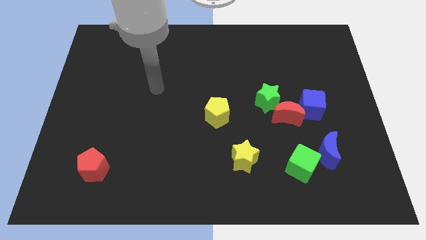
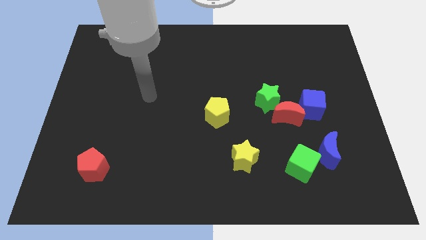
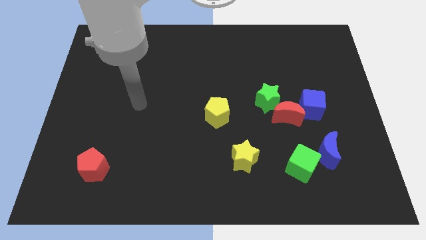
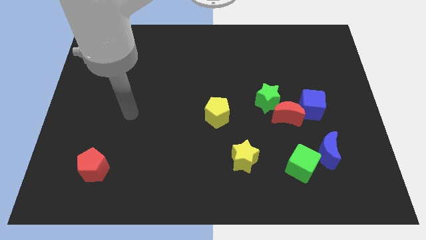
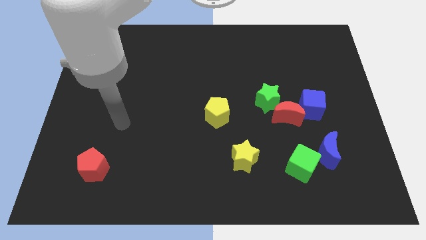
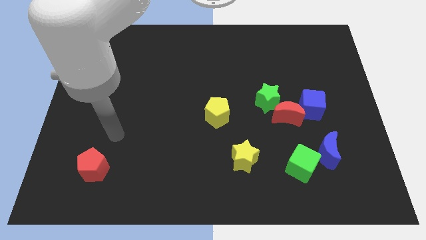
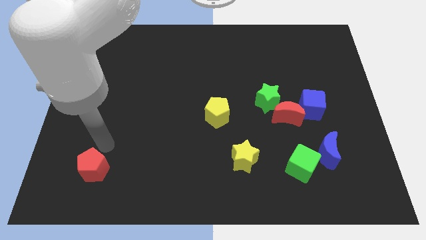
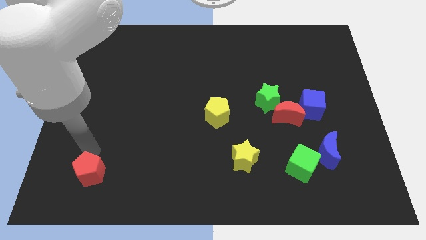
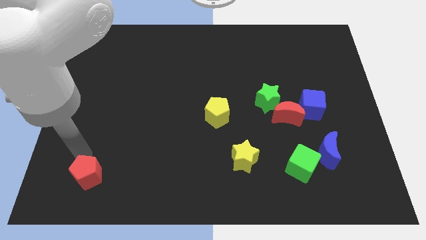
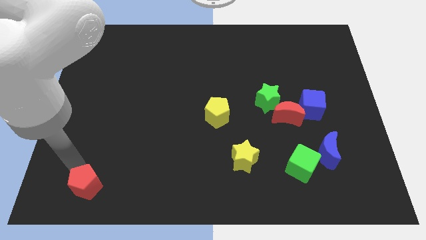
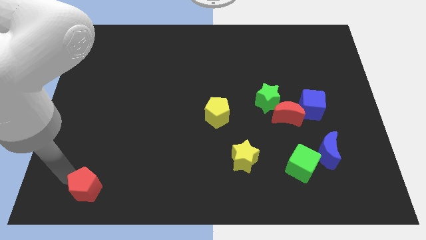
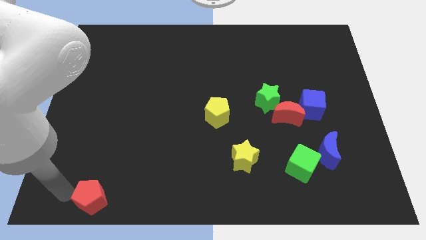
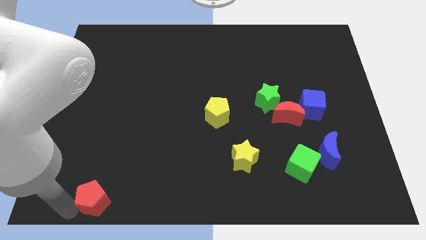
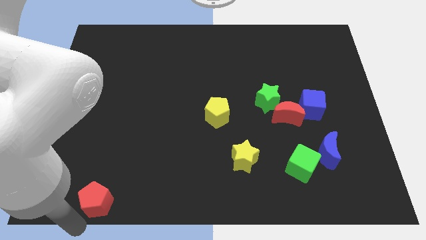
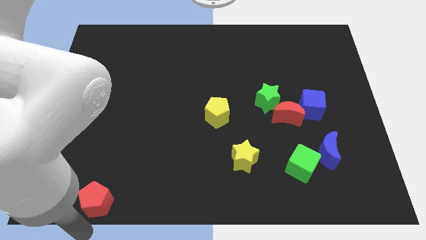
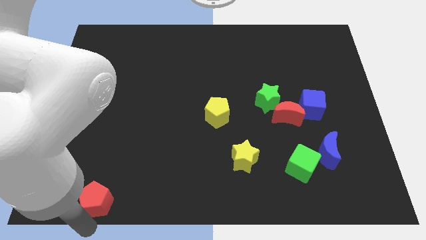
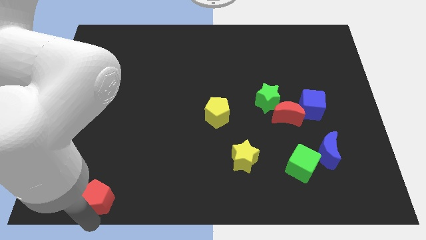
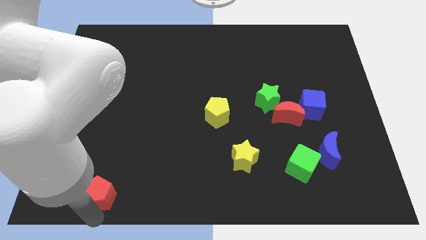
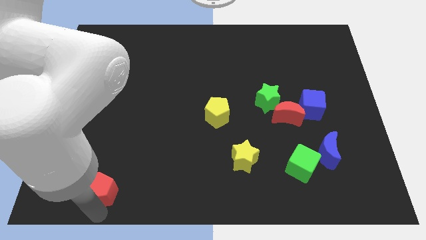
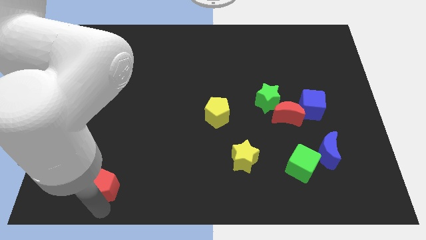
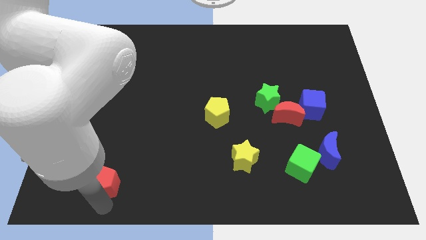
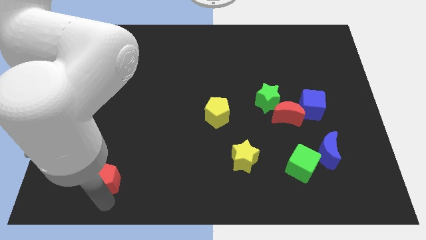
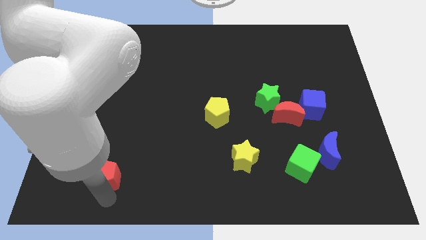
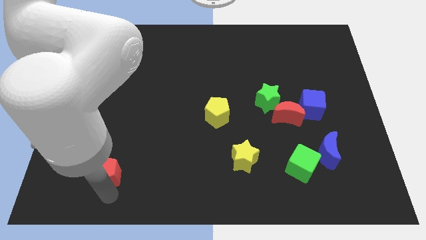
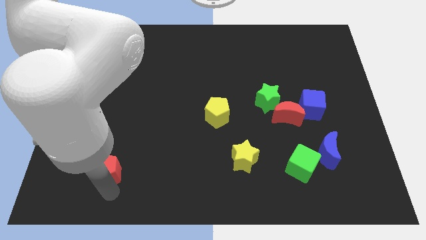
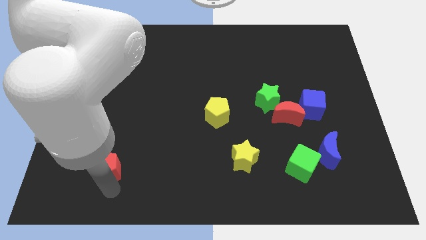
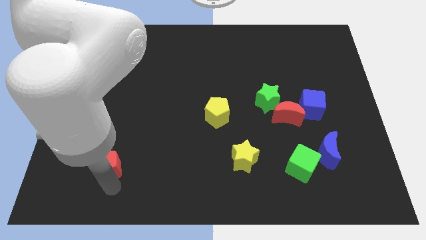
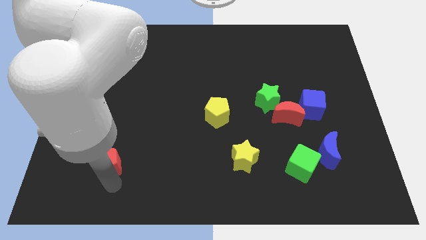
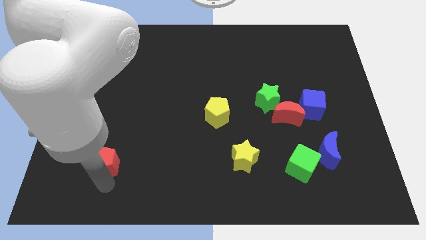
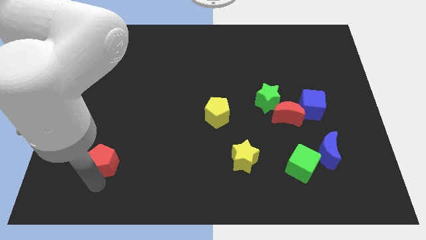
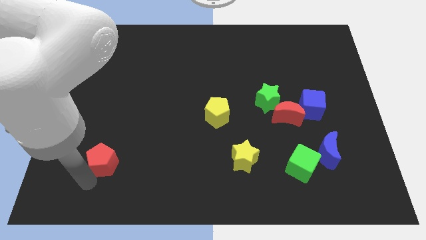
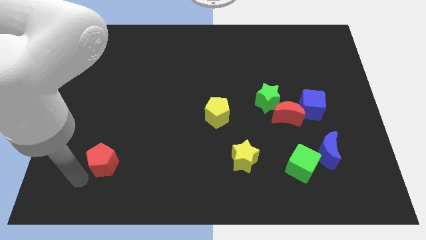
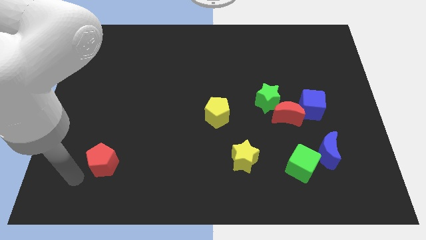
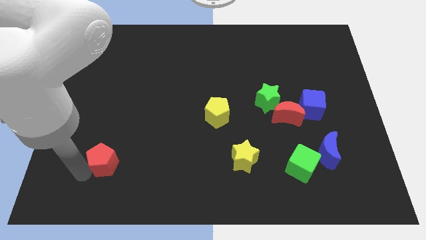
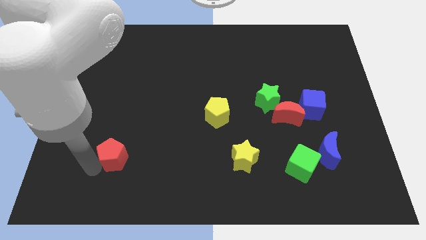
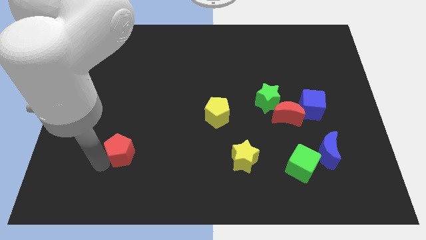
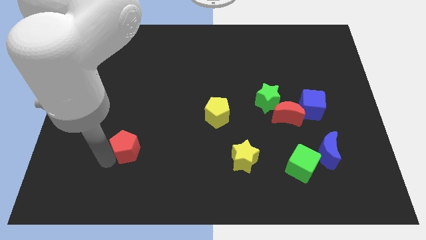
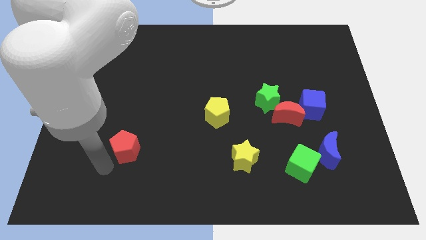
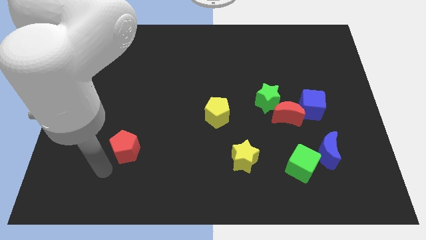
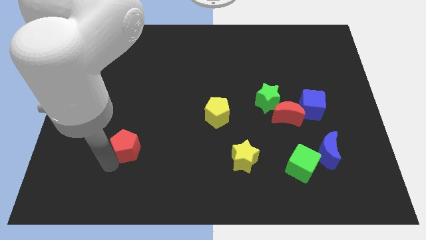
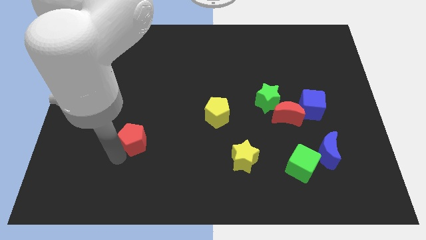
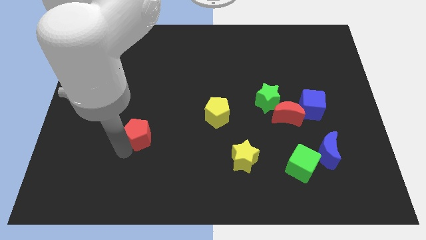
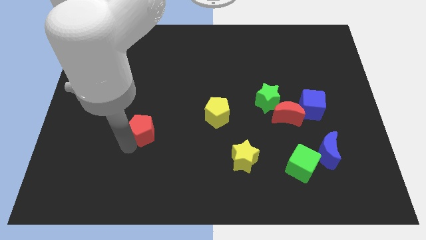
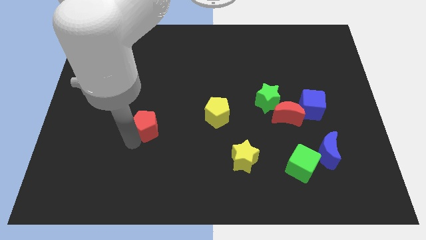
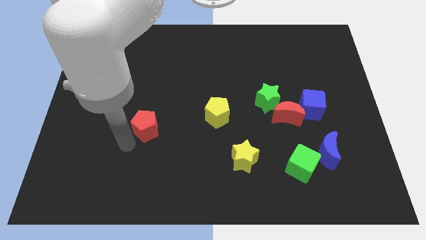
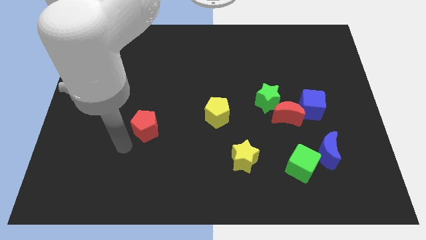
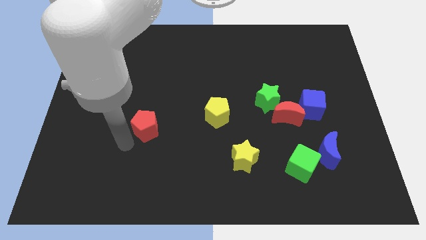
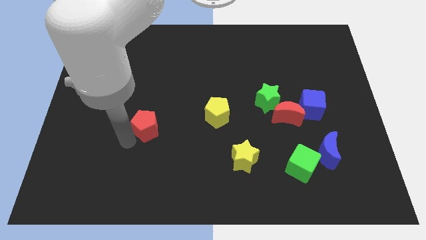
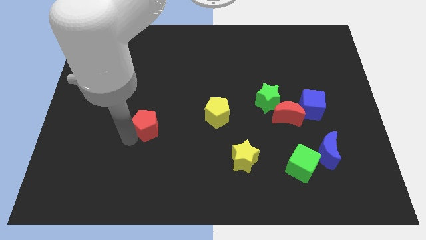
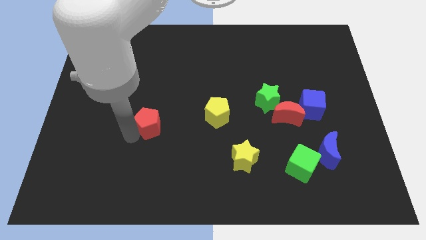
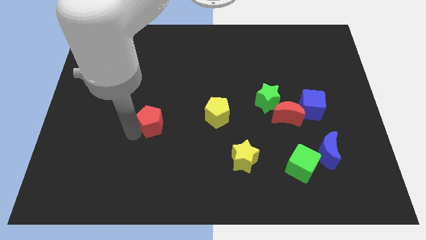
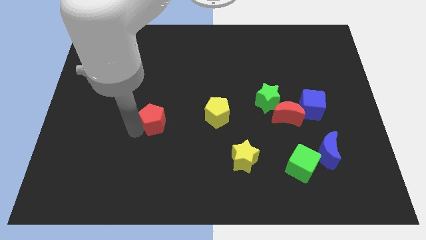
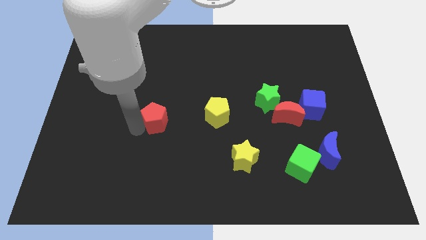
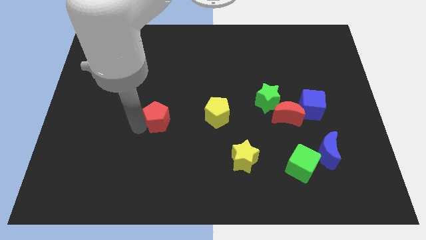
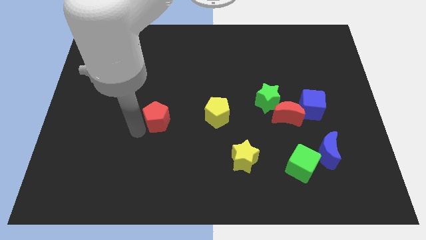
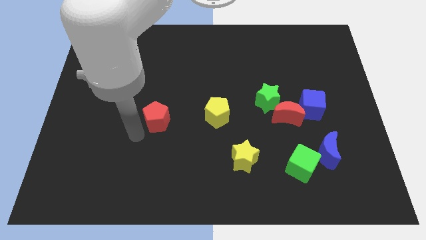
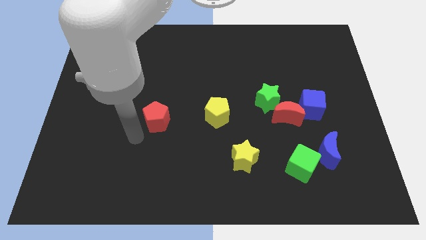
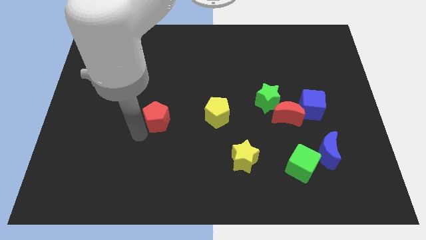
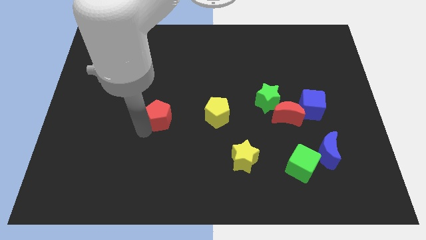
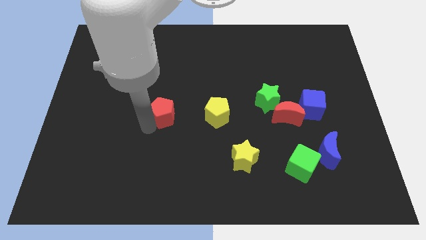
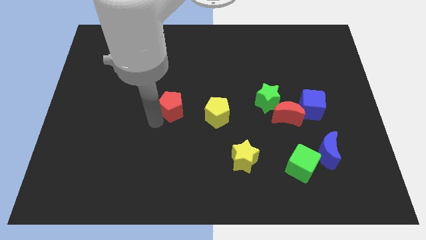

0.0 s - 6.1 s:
push the red pentagon diagonally upwards and to the right

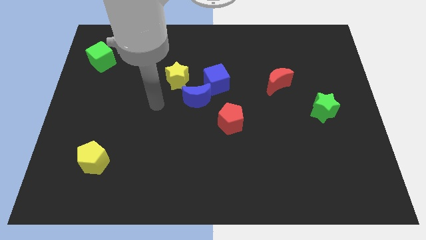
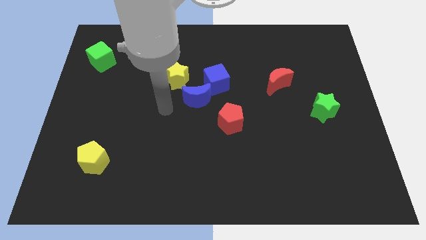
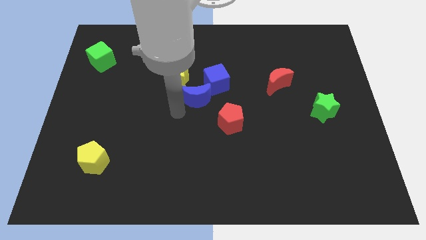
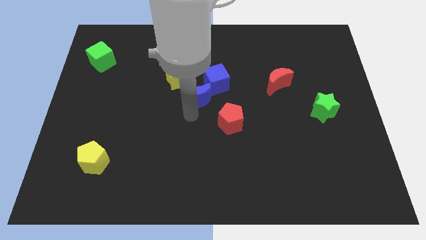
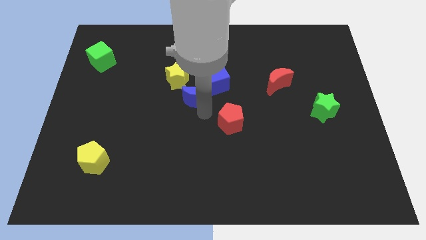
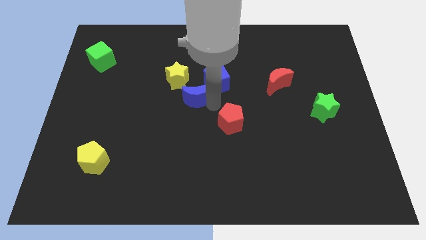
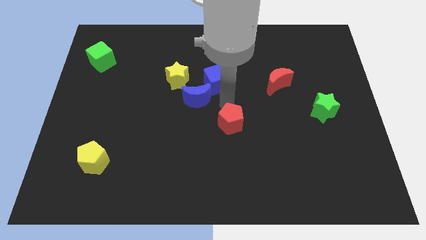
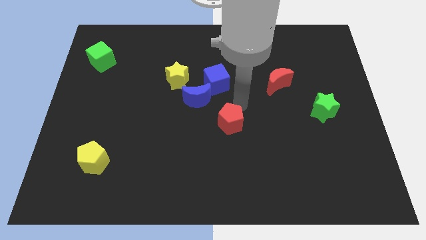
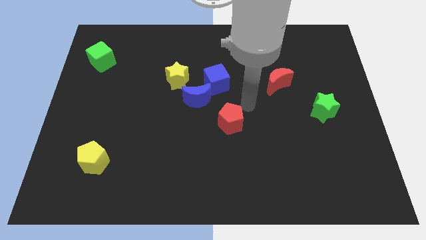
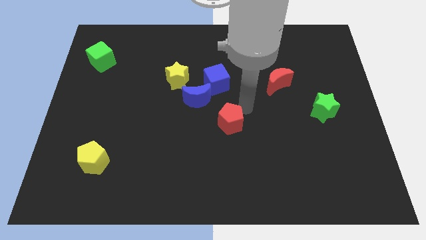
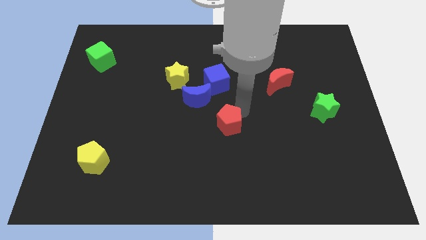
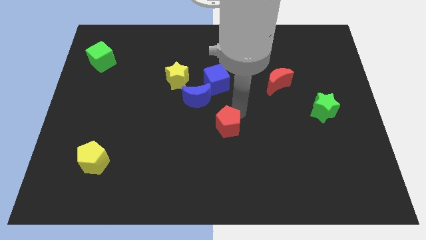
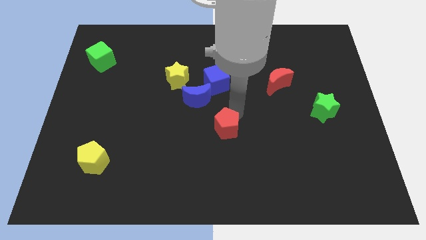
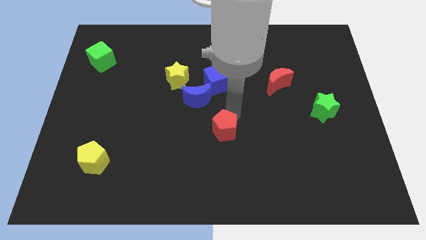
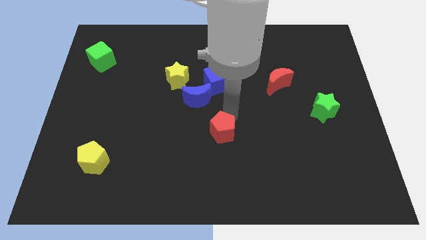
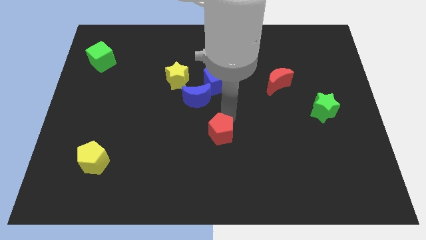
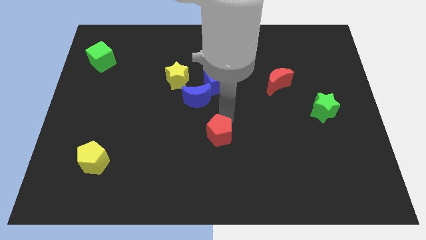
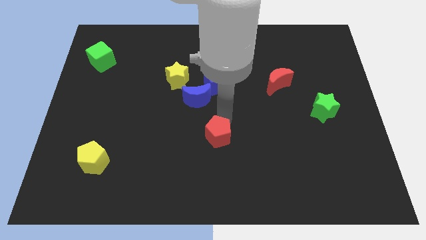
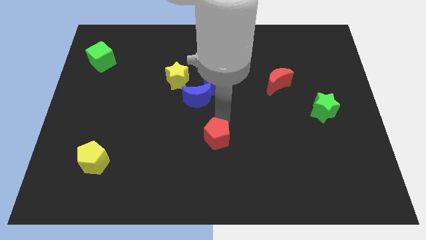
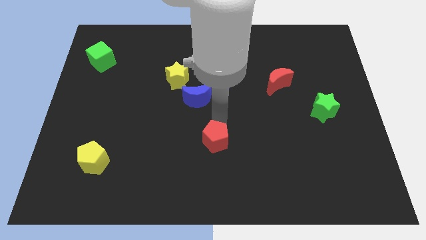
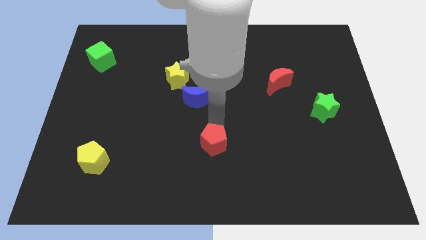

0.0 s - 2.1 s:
push the red pentagon downwards and left a bit
